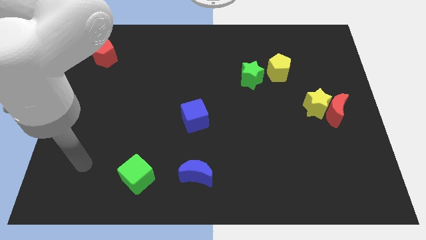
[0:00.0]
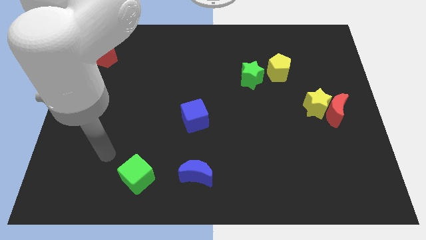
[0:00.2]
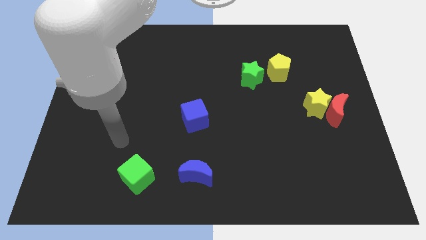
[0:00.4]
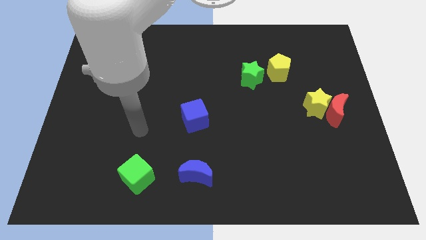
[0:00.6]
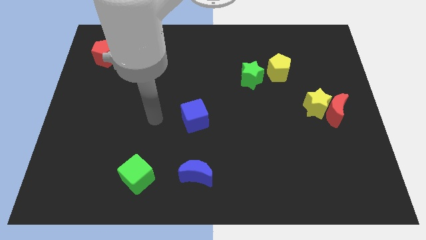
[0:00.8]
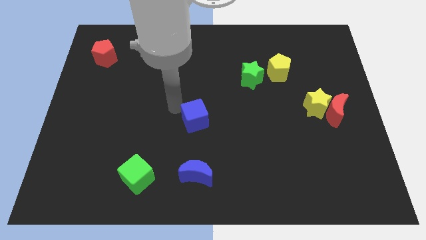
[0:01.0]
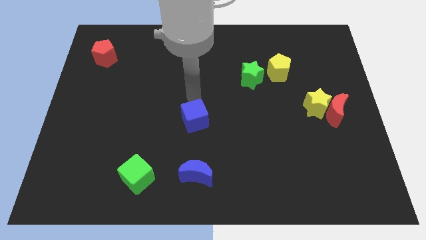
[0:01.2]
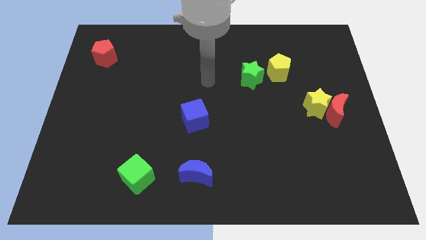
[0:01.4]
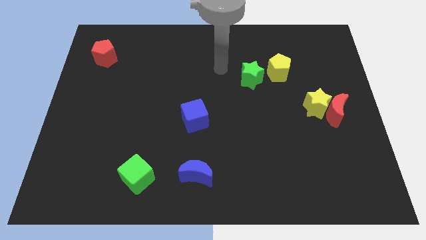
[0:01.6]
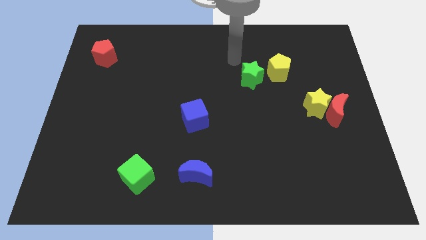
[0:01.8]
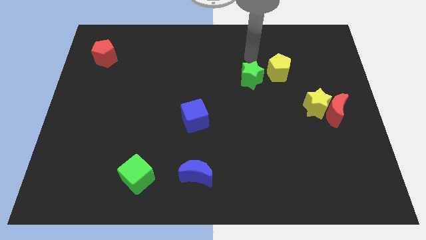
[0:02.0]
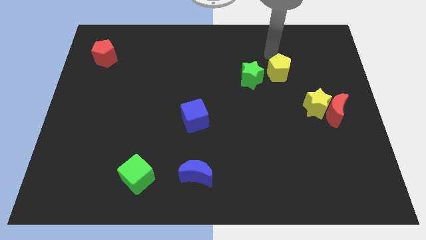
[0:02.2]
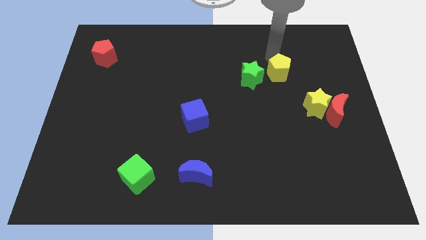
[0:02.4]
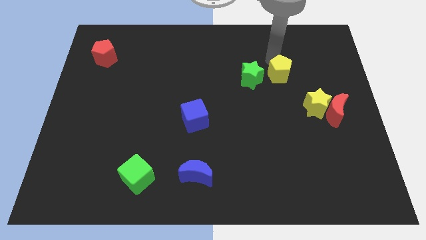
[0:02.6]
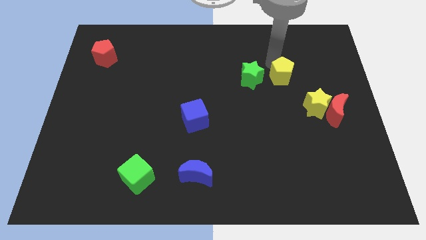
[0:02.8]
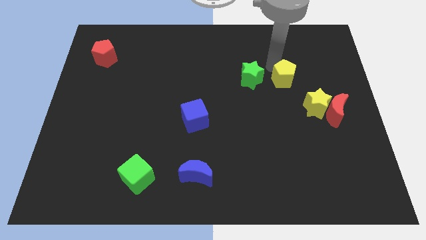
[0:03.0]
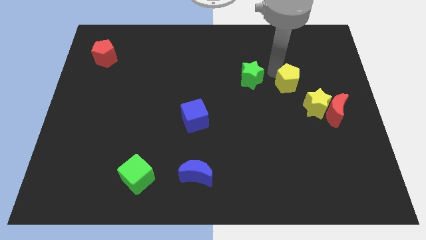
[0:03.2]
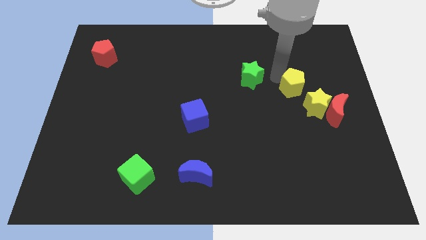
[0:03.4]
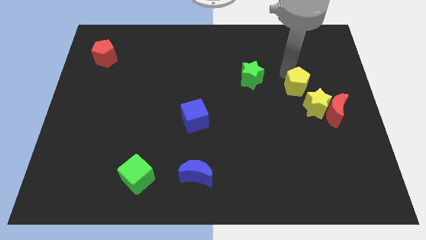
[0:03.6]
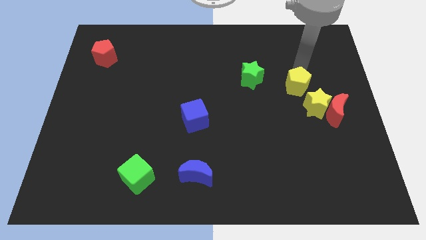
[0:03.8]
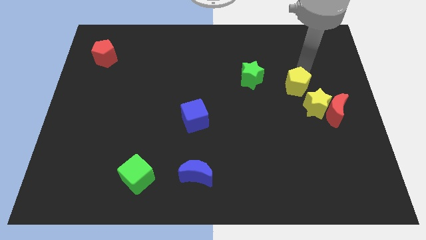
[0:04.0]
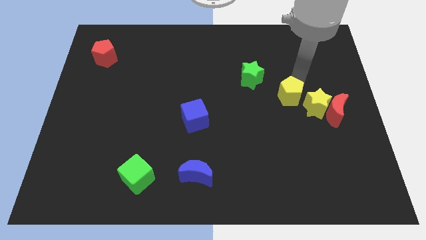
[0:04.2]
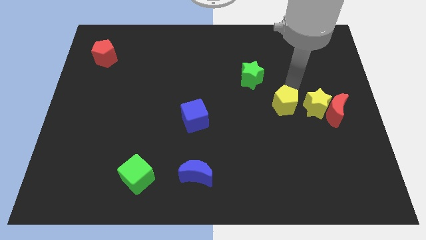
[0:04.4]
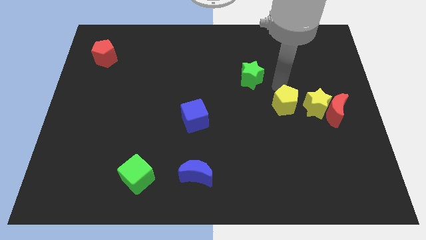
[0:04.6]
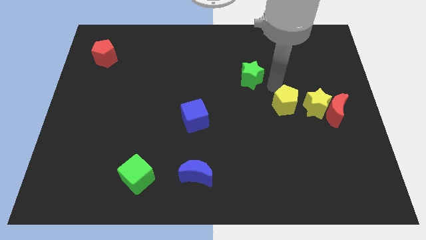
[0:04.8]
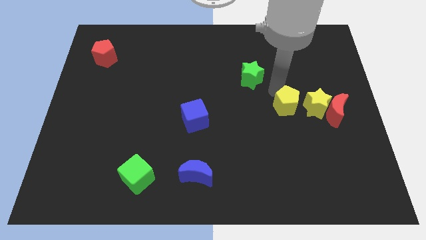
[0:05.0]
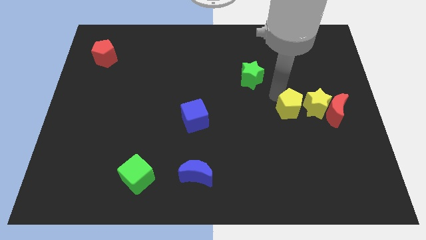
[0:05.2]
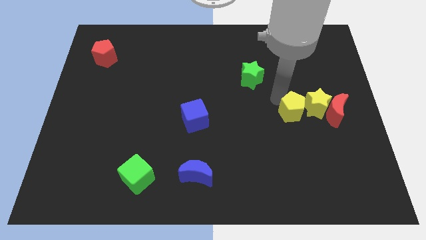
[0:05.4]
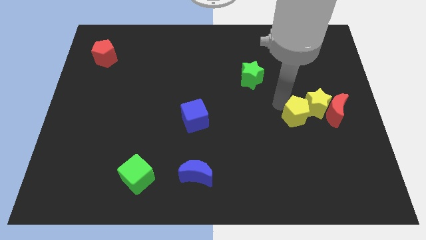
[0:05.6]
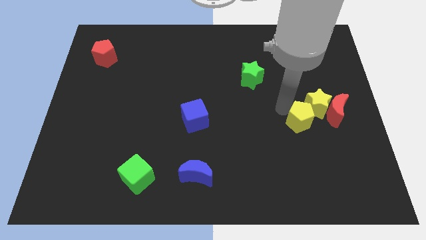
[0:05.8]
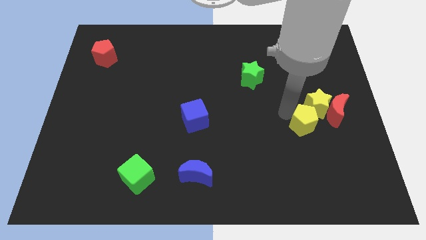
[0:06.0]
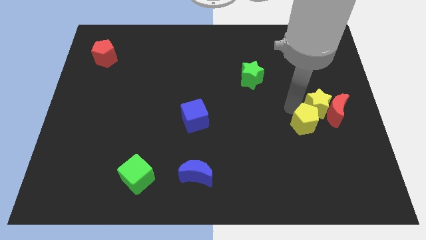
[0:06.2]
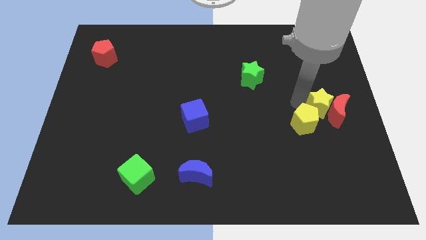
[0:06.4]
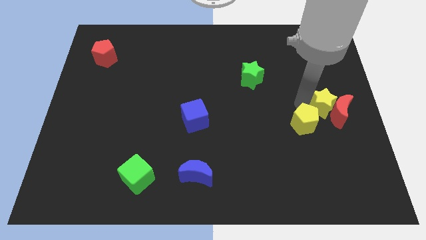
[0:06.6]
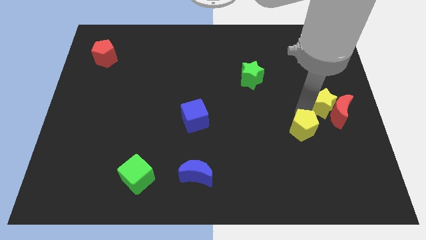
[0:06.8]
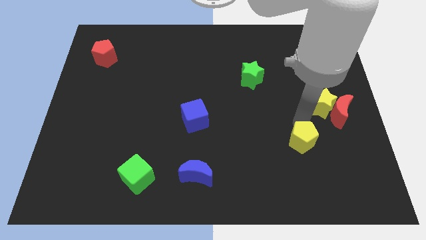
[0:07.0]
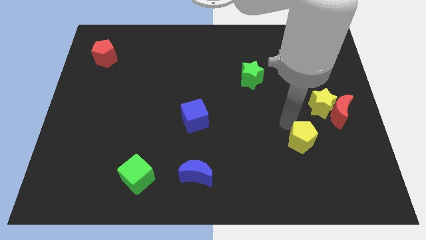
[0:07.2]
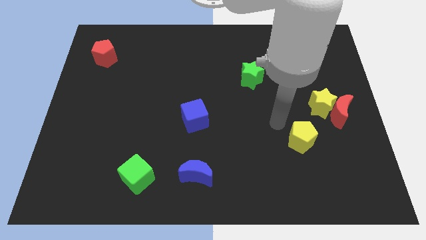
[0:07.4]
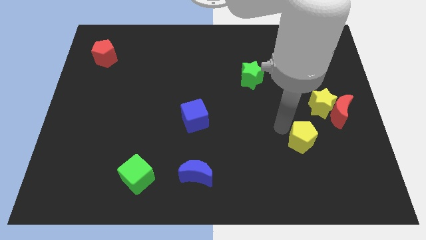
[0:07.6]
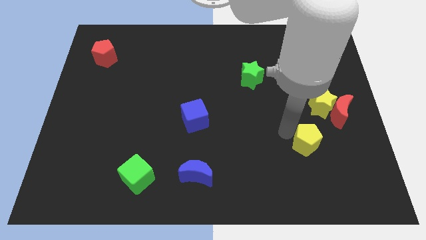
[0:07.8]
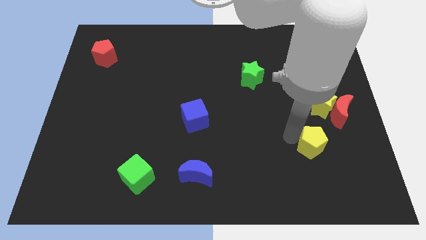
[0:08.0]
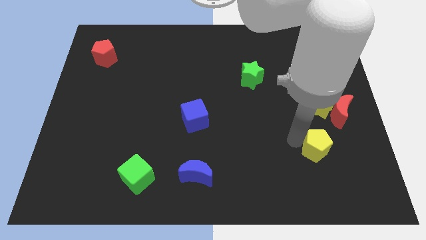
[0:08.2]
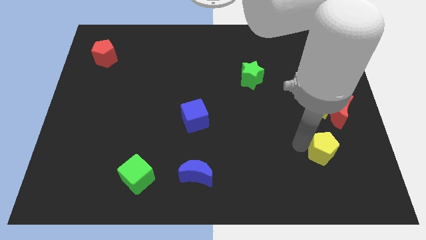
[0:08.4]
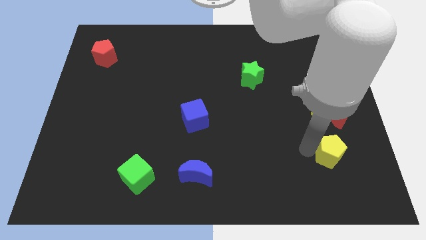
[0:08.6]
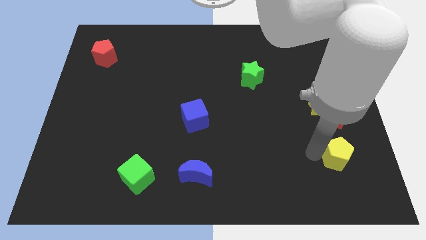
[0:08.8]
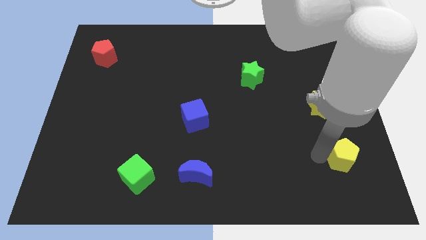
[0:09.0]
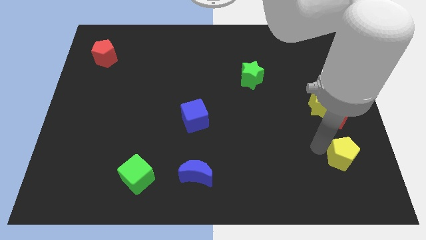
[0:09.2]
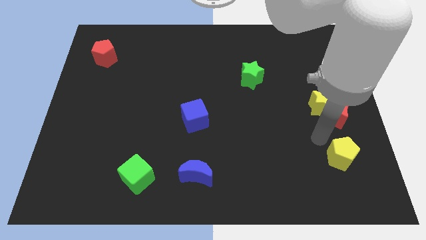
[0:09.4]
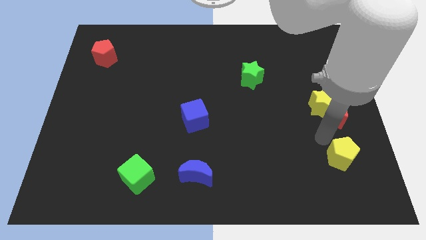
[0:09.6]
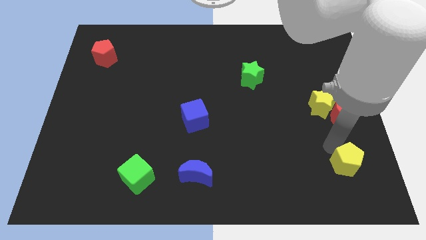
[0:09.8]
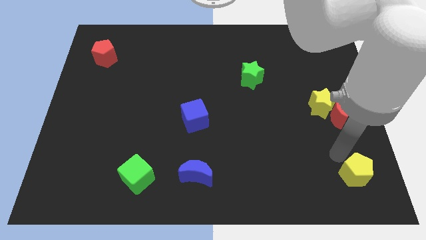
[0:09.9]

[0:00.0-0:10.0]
put the yellow pentagon to the bottom right

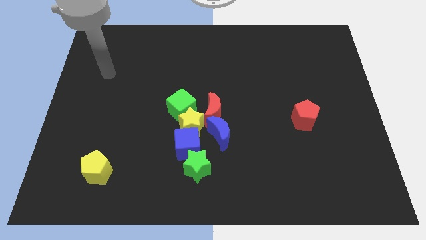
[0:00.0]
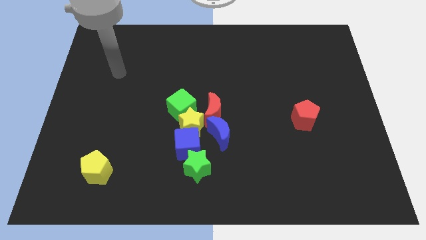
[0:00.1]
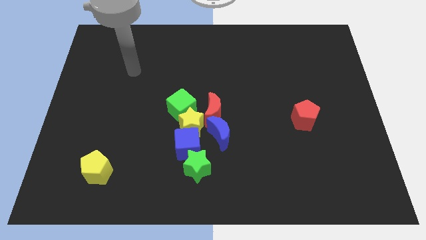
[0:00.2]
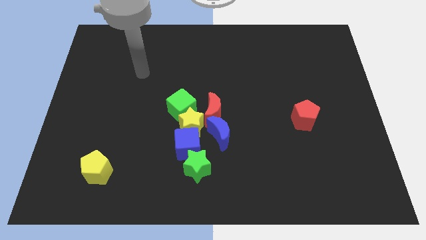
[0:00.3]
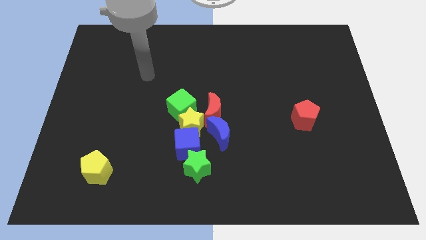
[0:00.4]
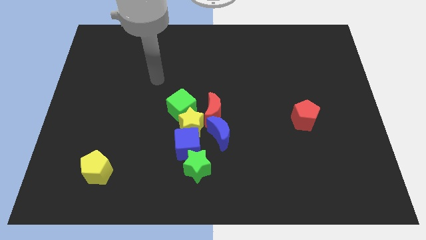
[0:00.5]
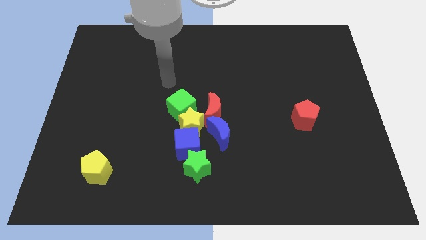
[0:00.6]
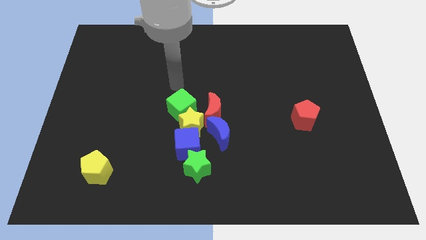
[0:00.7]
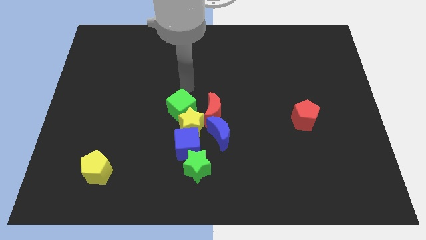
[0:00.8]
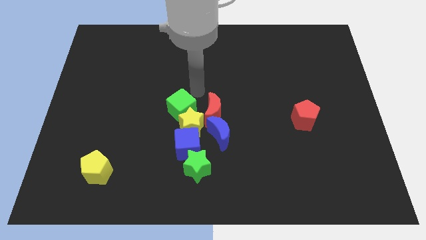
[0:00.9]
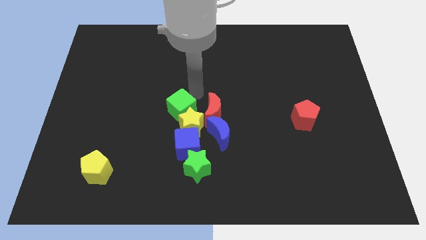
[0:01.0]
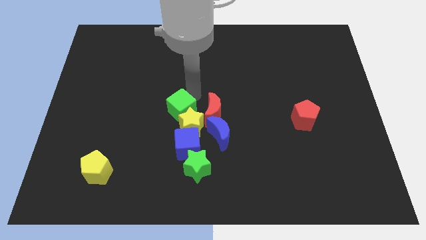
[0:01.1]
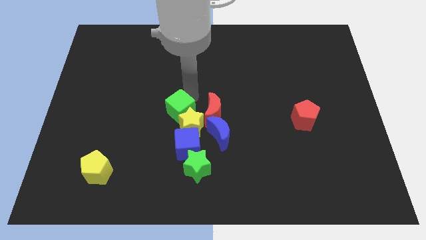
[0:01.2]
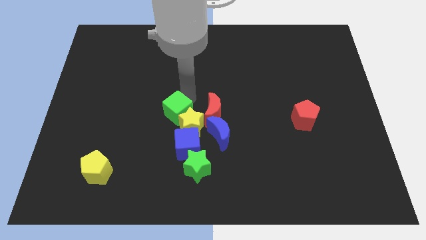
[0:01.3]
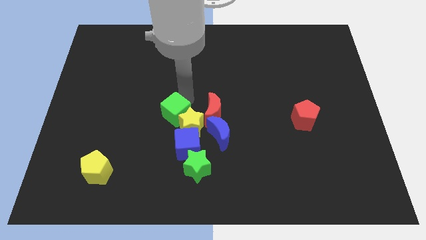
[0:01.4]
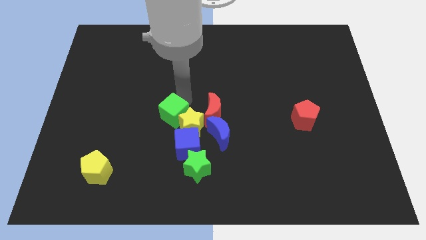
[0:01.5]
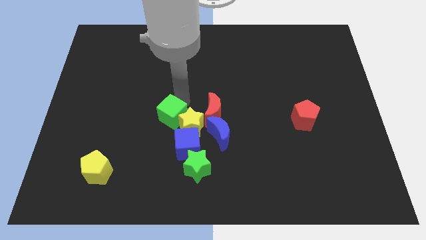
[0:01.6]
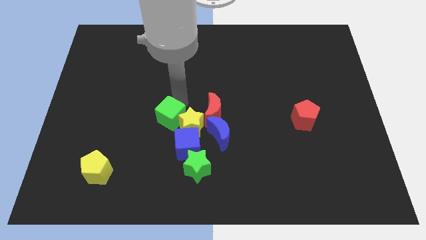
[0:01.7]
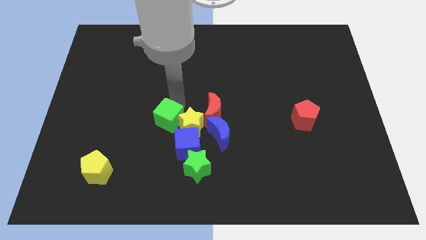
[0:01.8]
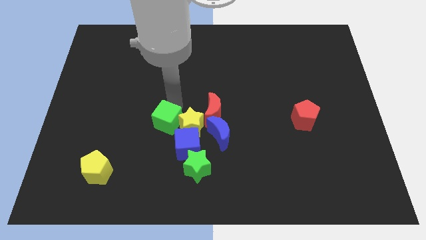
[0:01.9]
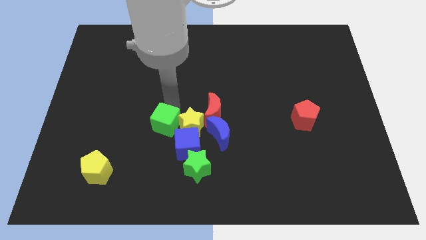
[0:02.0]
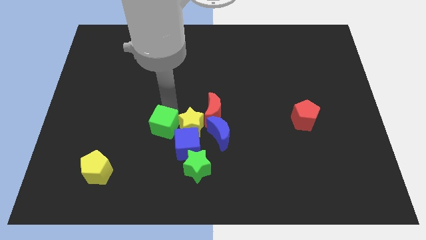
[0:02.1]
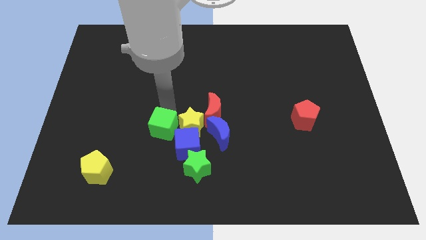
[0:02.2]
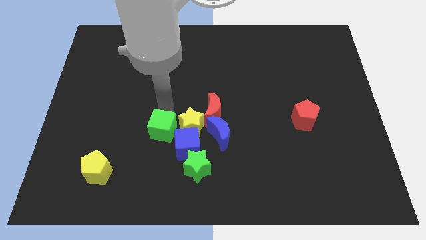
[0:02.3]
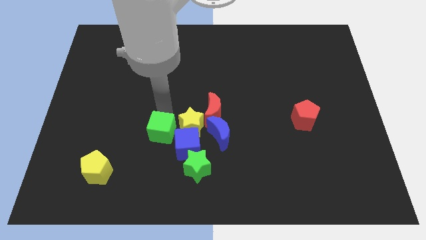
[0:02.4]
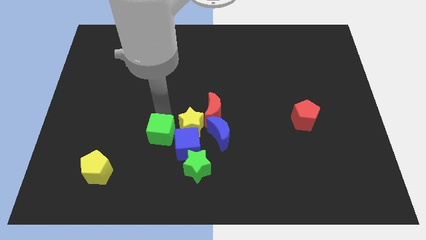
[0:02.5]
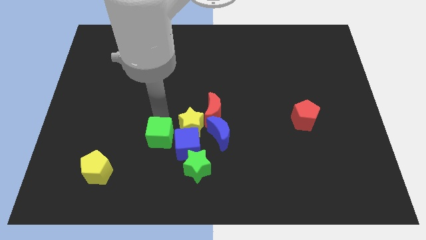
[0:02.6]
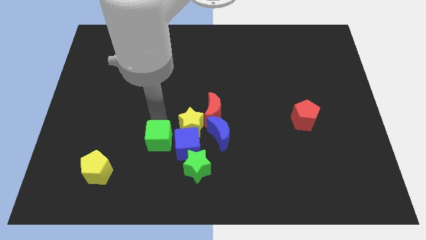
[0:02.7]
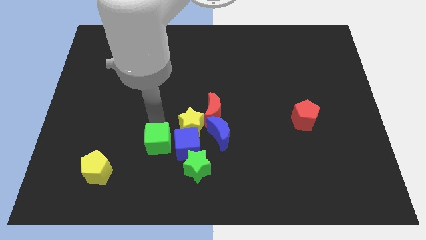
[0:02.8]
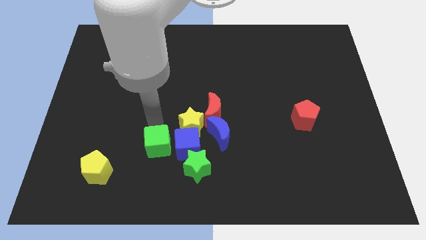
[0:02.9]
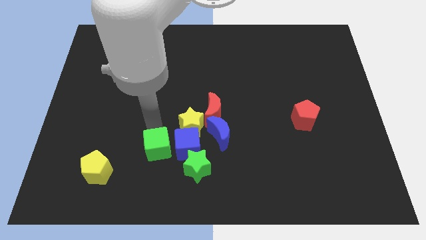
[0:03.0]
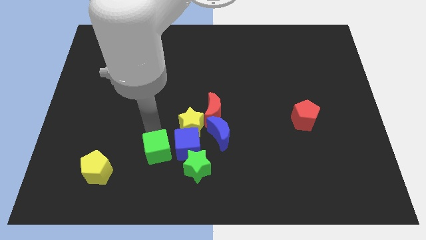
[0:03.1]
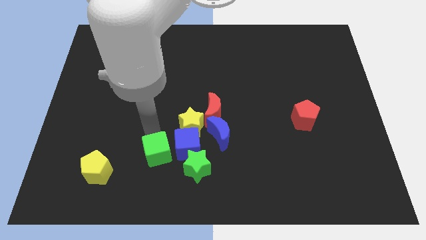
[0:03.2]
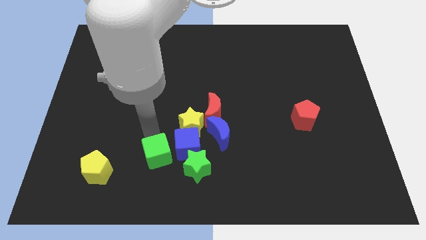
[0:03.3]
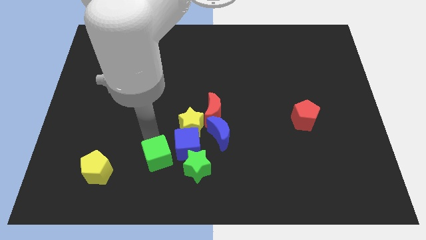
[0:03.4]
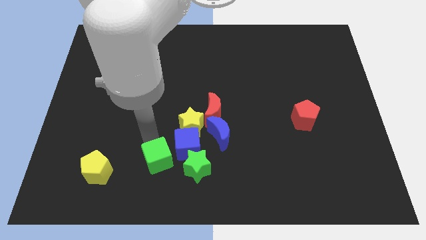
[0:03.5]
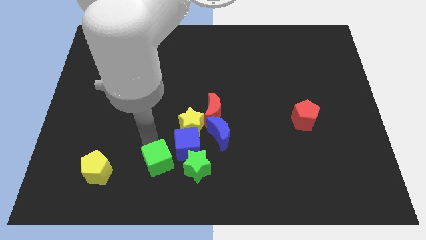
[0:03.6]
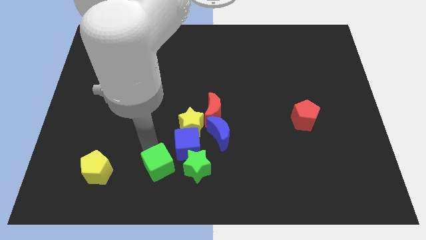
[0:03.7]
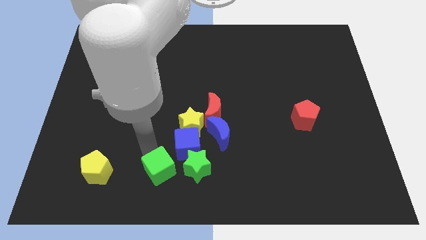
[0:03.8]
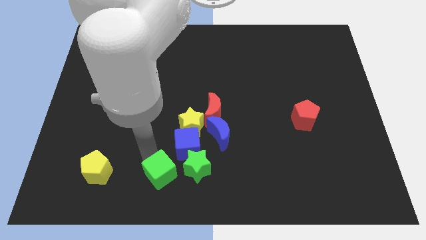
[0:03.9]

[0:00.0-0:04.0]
move the green cube to the bottom side
